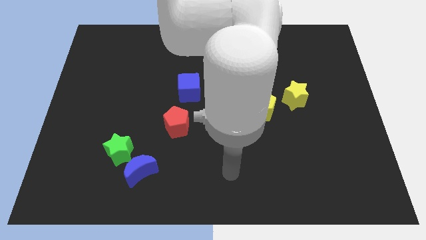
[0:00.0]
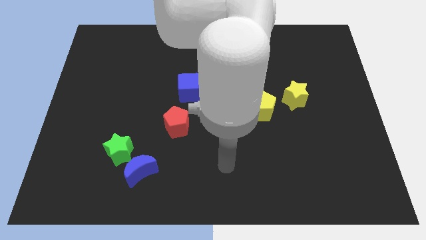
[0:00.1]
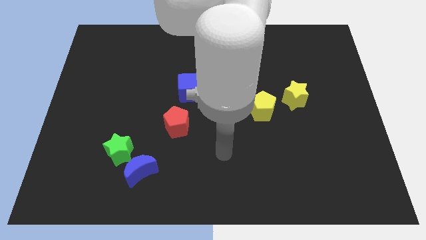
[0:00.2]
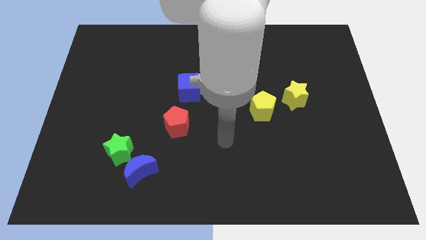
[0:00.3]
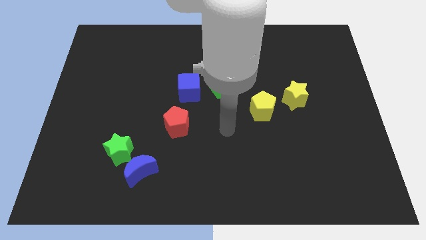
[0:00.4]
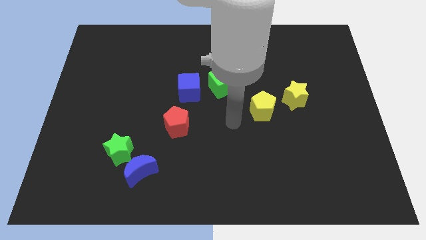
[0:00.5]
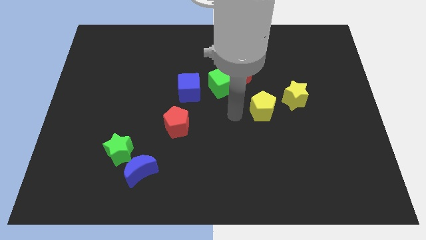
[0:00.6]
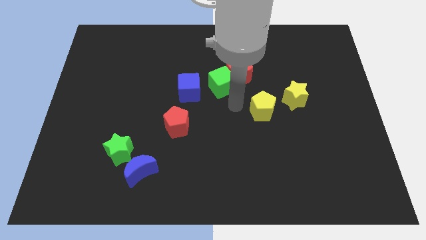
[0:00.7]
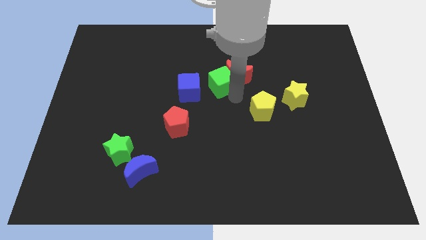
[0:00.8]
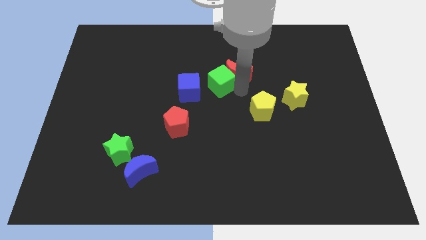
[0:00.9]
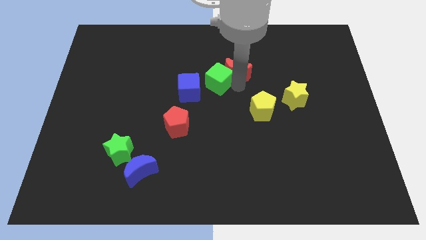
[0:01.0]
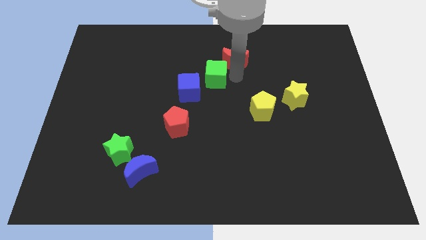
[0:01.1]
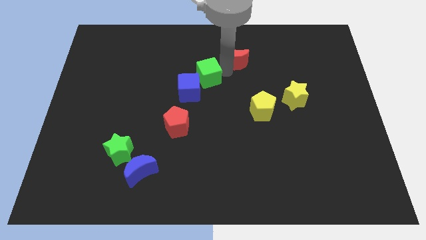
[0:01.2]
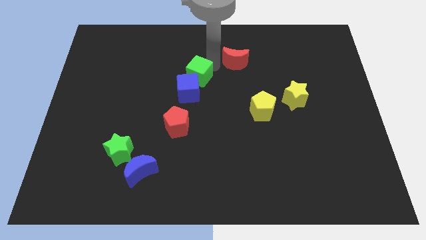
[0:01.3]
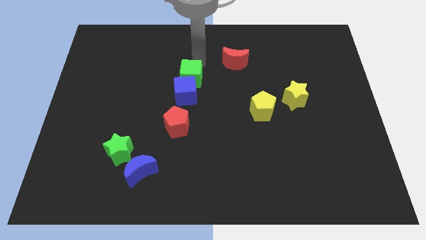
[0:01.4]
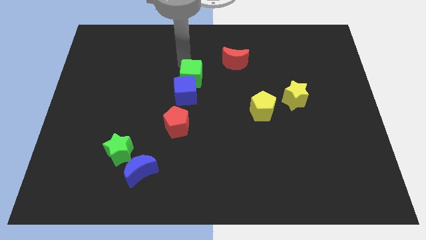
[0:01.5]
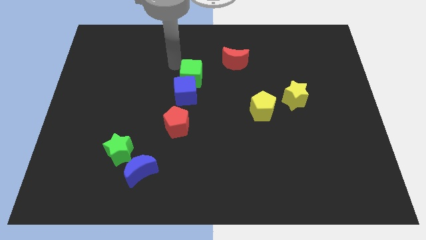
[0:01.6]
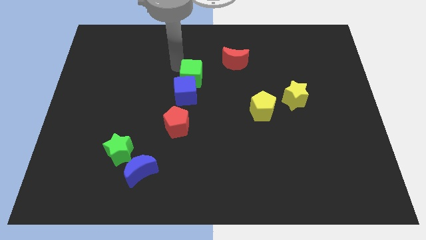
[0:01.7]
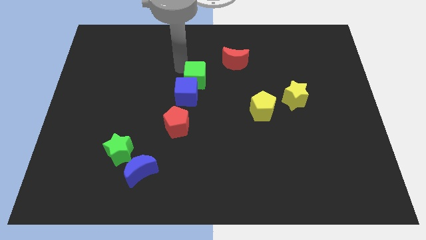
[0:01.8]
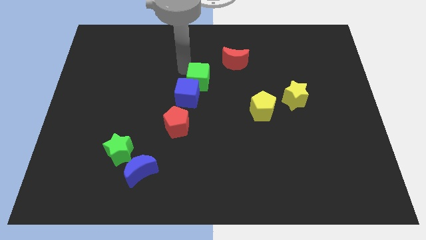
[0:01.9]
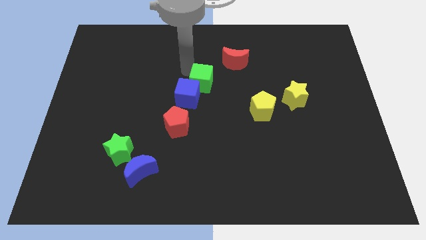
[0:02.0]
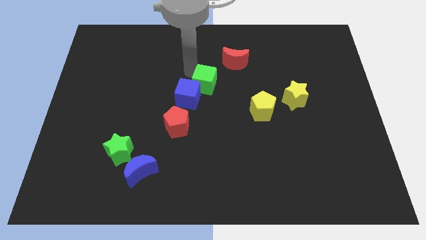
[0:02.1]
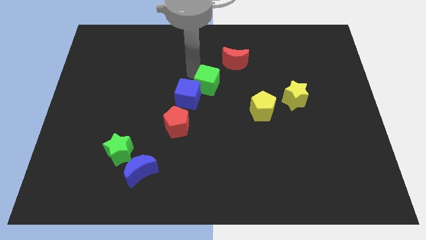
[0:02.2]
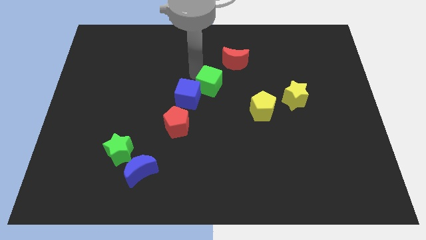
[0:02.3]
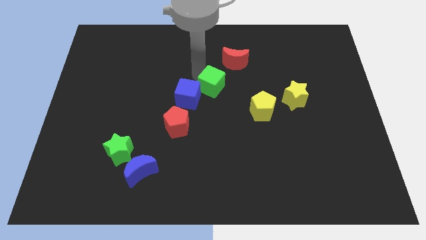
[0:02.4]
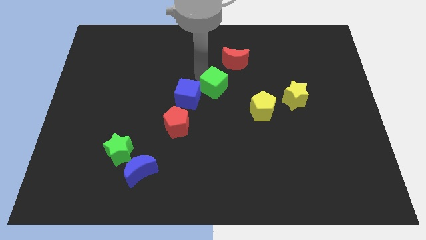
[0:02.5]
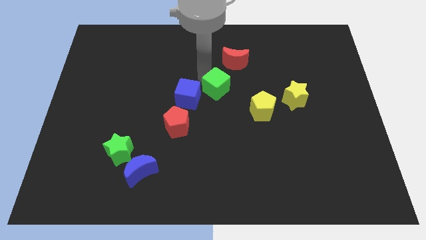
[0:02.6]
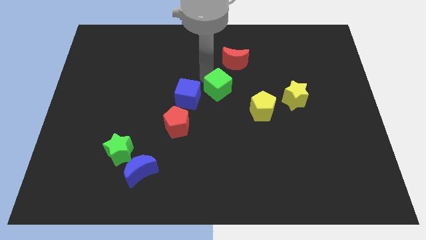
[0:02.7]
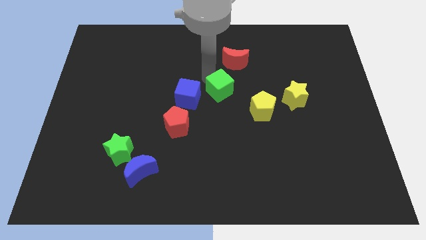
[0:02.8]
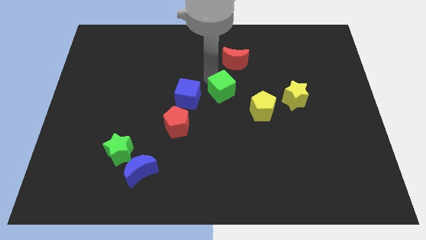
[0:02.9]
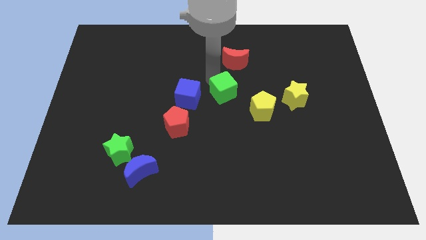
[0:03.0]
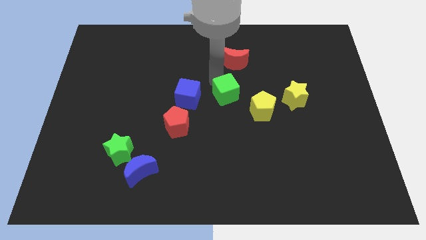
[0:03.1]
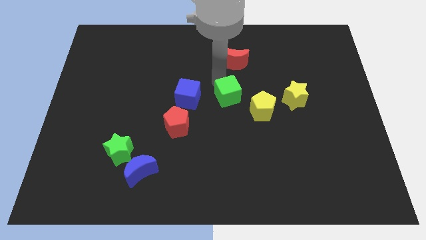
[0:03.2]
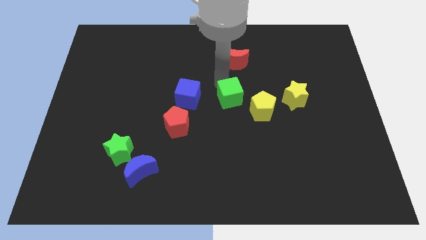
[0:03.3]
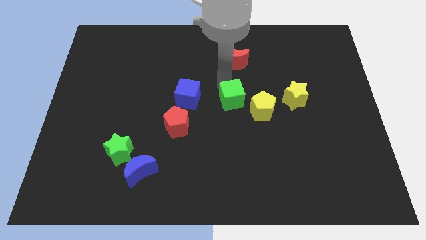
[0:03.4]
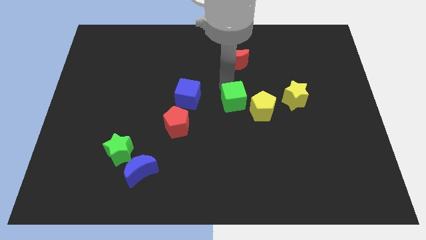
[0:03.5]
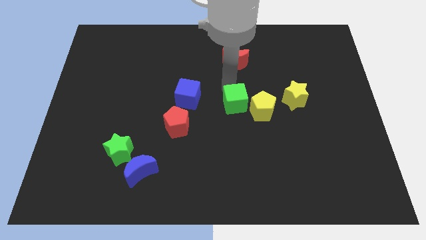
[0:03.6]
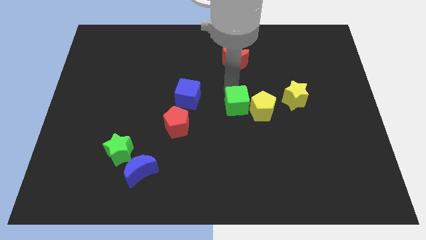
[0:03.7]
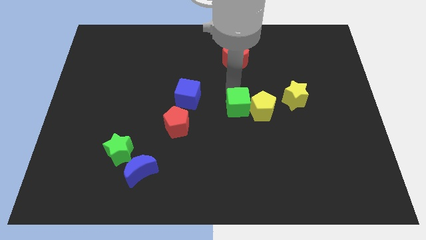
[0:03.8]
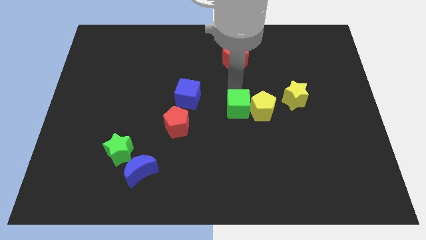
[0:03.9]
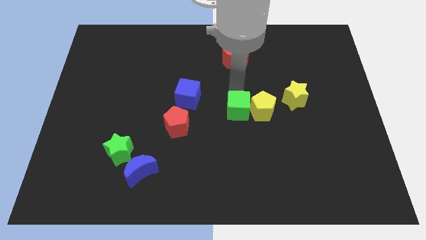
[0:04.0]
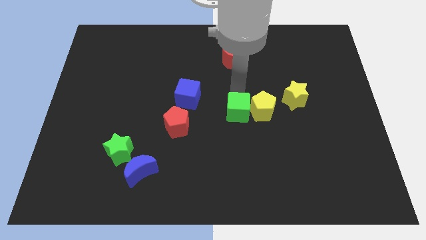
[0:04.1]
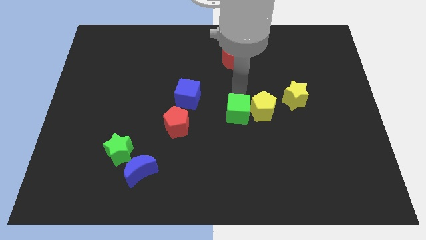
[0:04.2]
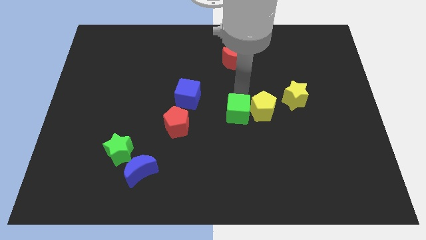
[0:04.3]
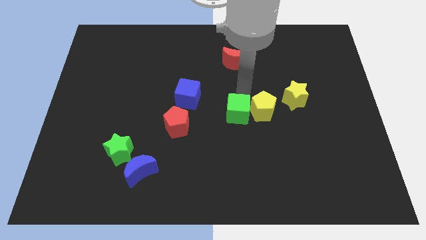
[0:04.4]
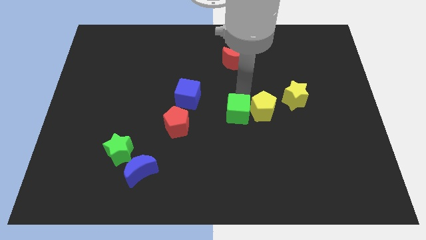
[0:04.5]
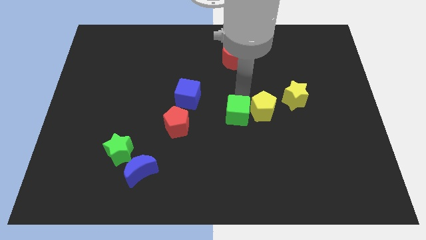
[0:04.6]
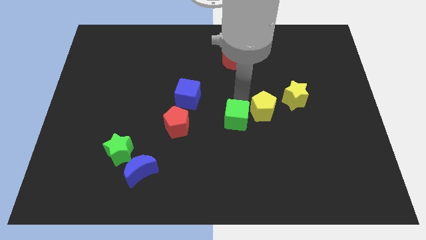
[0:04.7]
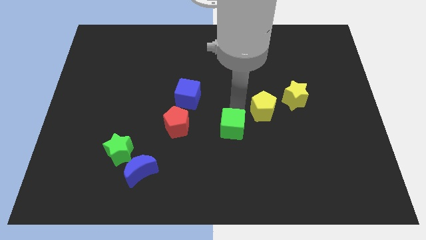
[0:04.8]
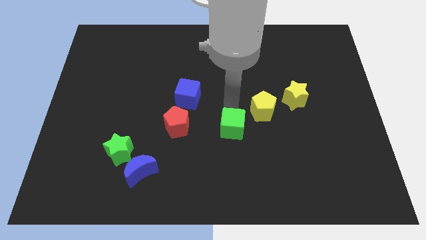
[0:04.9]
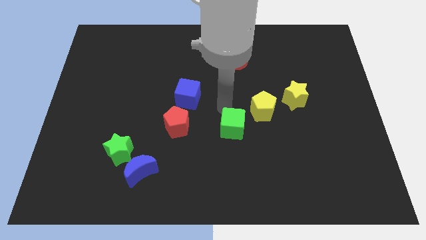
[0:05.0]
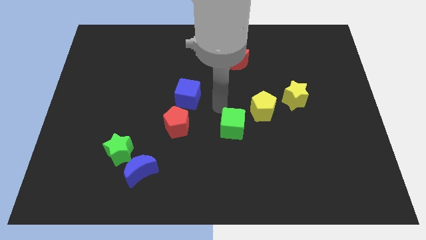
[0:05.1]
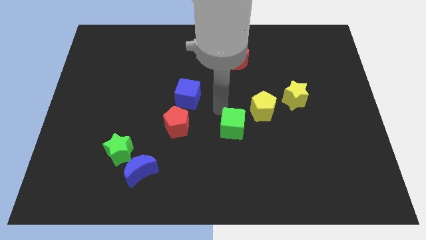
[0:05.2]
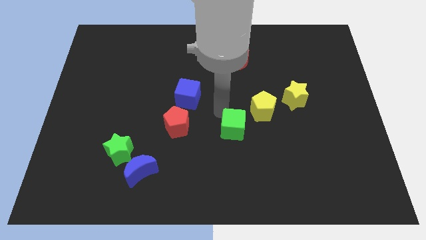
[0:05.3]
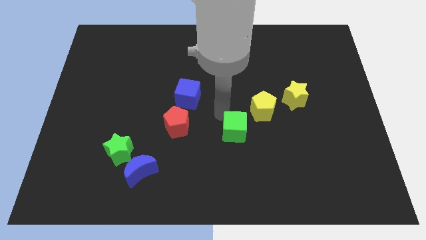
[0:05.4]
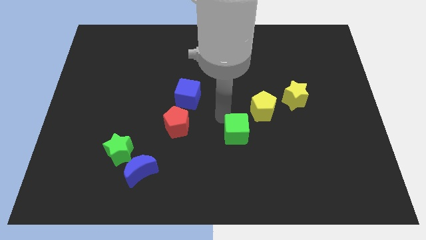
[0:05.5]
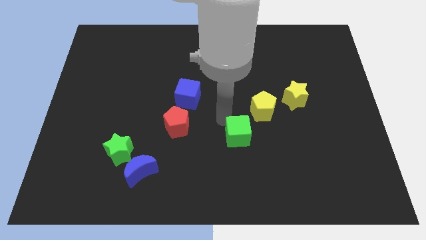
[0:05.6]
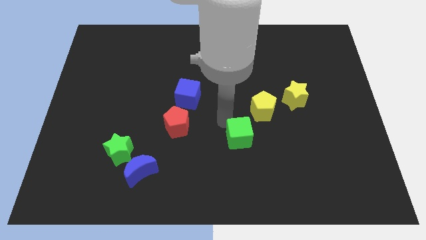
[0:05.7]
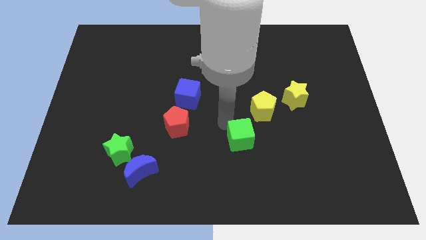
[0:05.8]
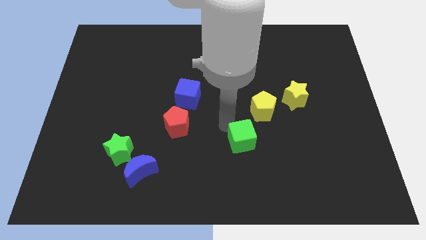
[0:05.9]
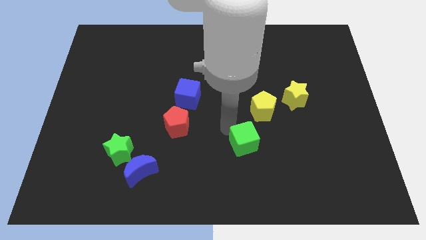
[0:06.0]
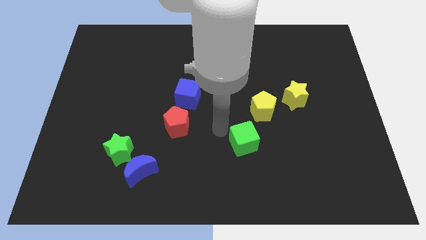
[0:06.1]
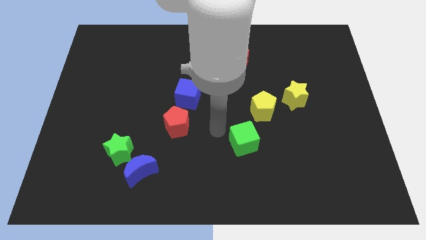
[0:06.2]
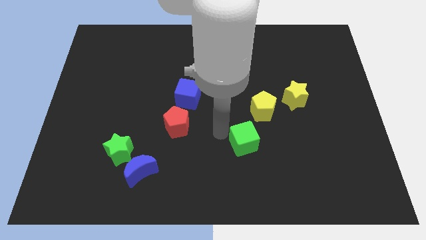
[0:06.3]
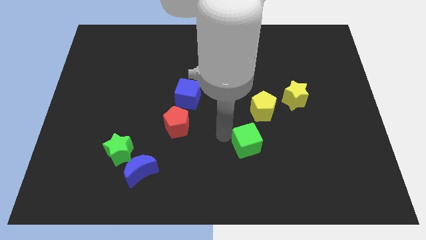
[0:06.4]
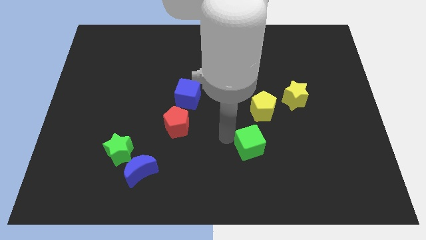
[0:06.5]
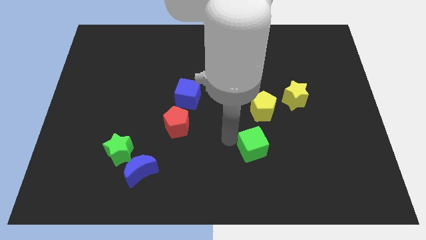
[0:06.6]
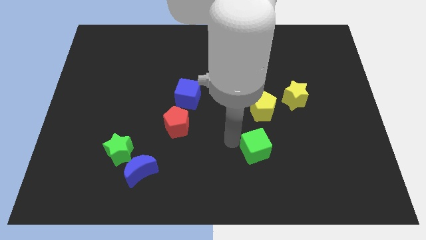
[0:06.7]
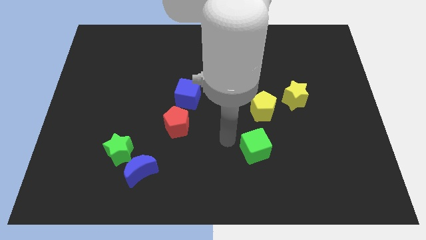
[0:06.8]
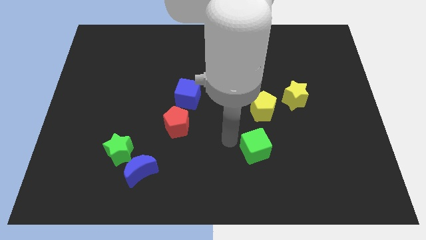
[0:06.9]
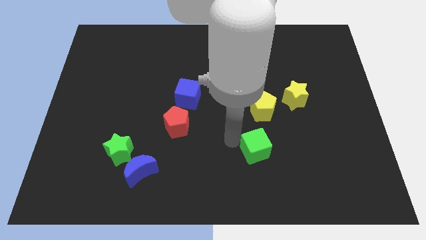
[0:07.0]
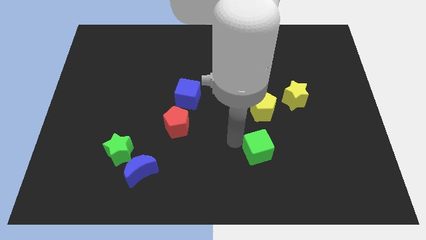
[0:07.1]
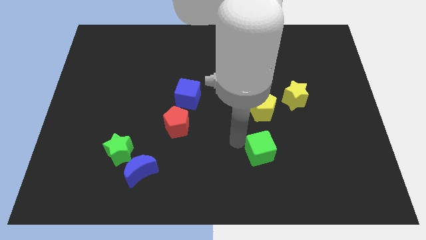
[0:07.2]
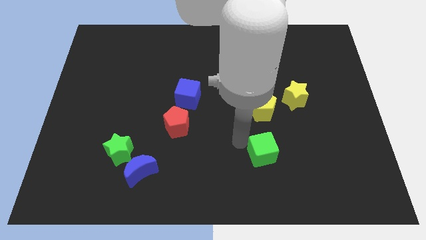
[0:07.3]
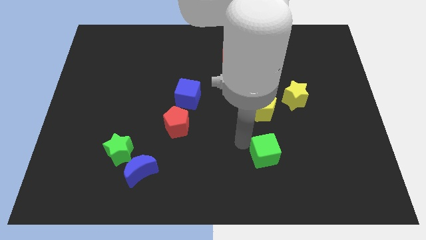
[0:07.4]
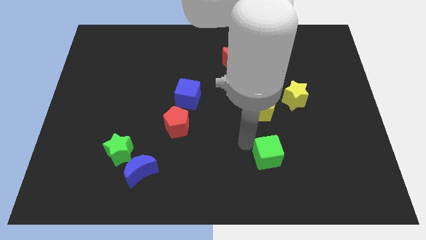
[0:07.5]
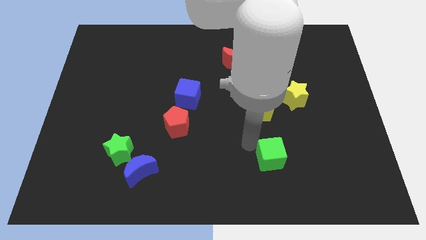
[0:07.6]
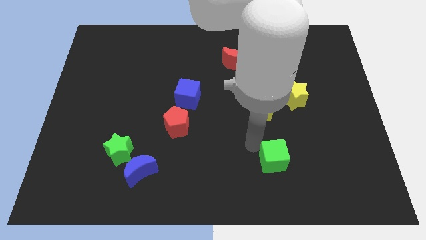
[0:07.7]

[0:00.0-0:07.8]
push the green cube diagonally downwards and to the right

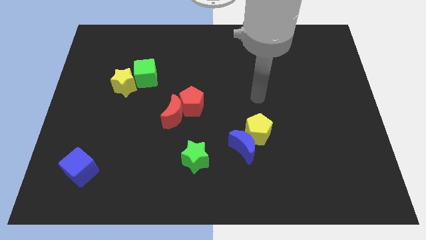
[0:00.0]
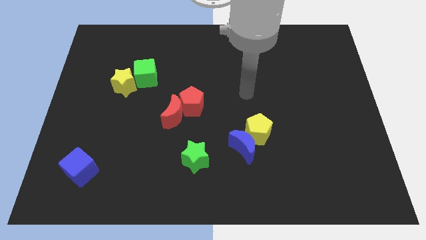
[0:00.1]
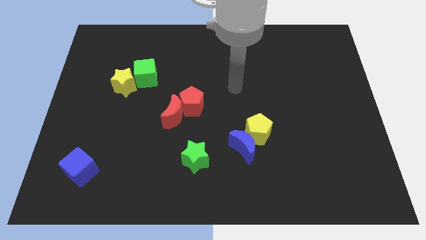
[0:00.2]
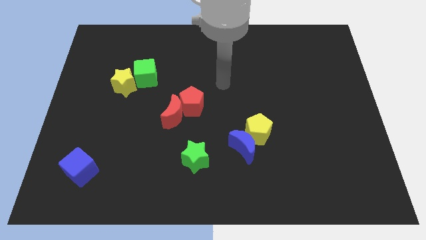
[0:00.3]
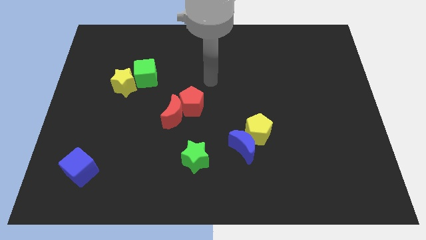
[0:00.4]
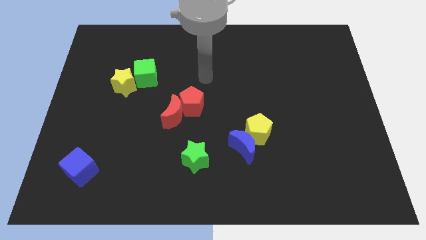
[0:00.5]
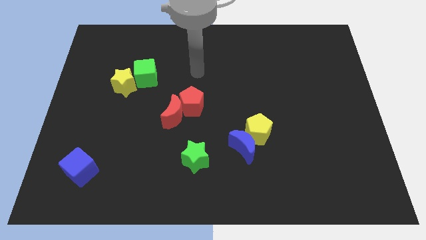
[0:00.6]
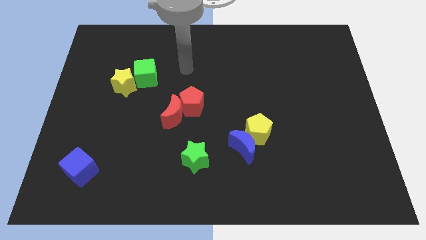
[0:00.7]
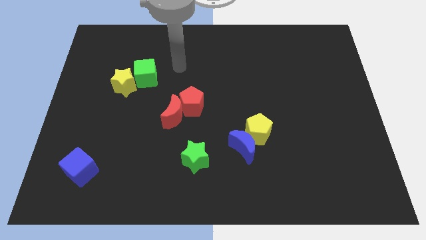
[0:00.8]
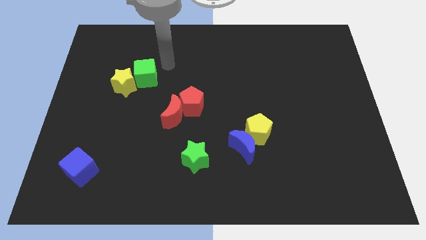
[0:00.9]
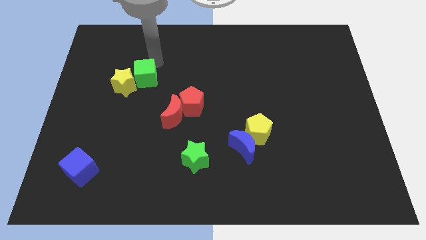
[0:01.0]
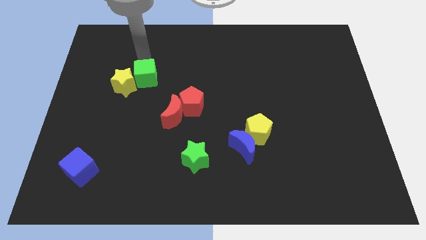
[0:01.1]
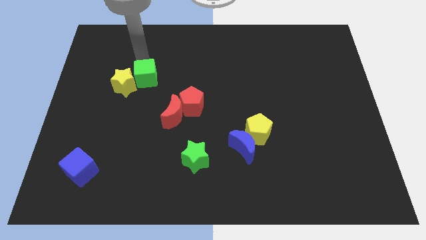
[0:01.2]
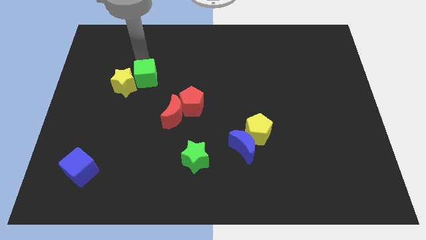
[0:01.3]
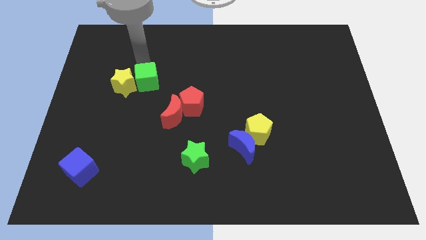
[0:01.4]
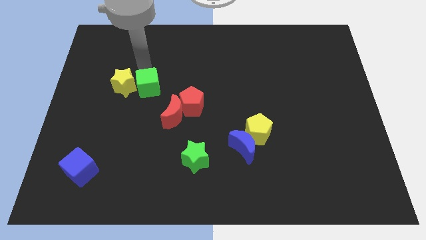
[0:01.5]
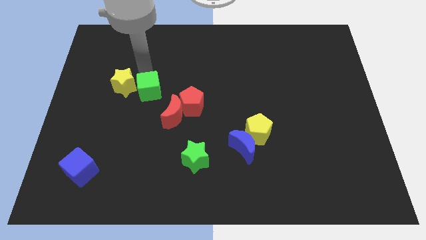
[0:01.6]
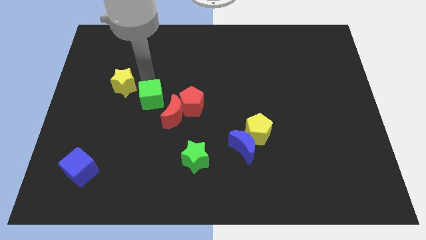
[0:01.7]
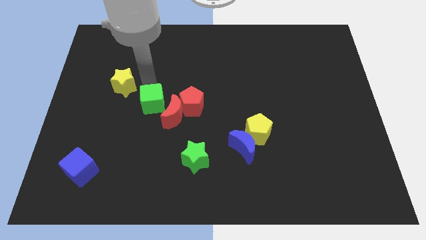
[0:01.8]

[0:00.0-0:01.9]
slide the green cube diagonally down and to the right slightly
